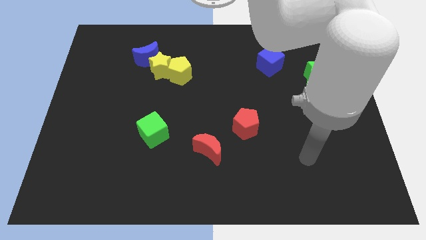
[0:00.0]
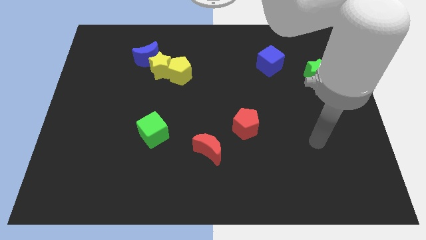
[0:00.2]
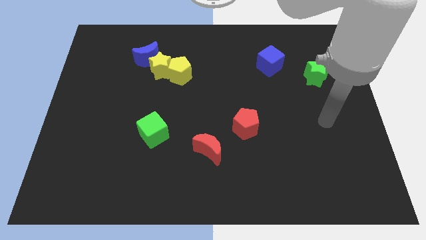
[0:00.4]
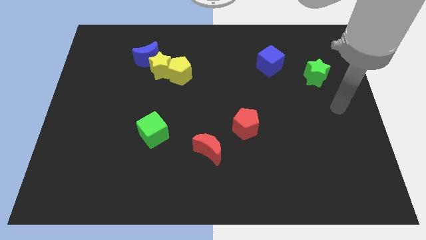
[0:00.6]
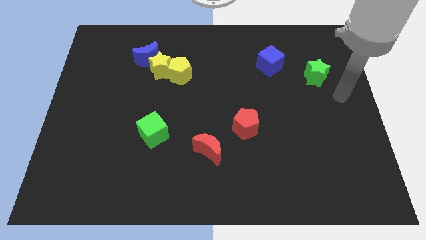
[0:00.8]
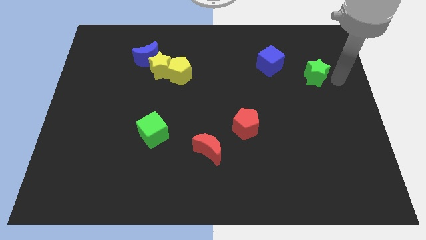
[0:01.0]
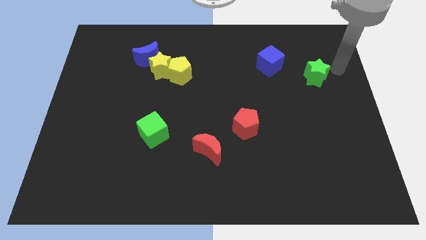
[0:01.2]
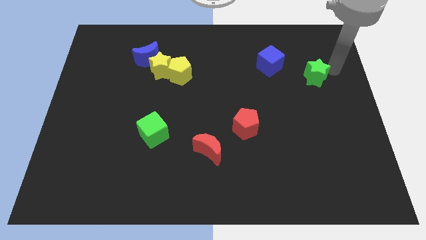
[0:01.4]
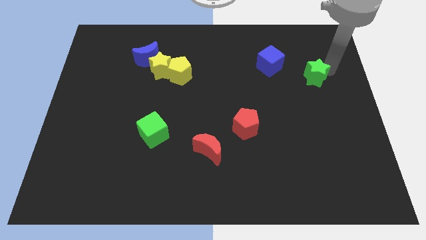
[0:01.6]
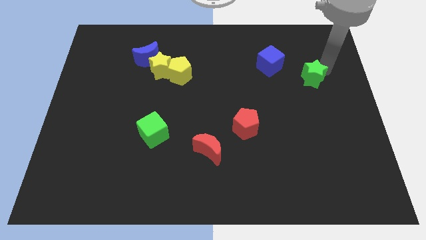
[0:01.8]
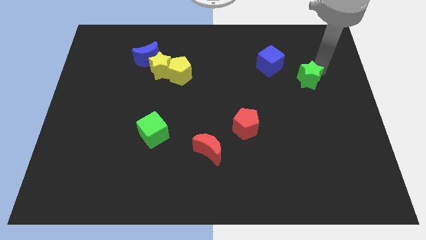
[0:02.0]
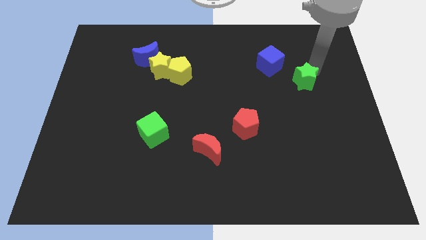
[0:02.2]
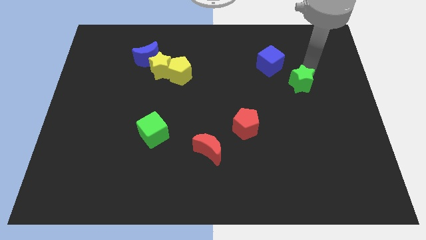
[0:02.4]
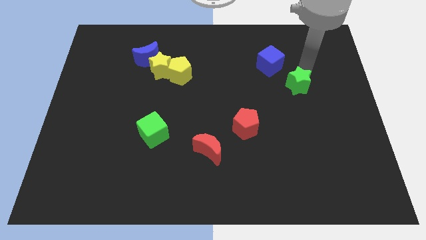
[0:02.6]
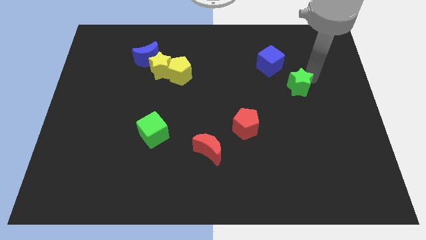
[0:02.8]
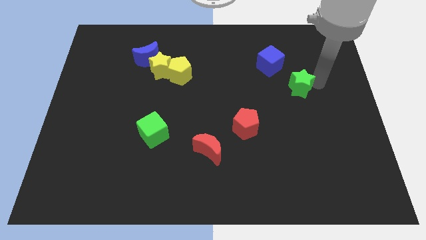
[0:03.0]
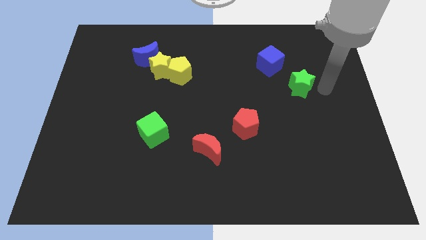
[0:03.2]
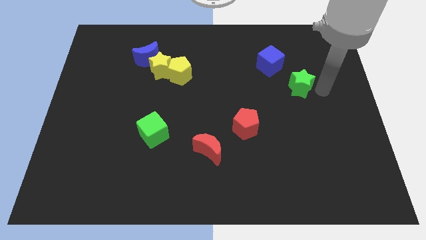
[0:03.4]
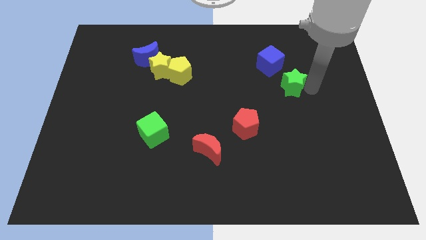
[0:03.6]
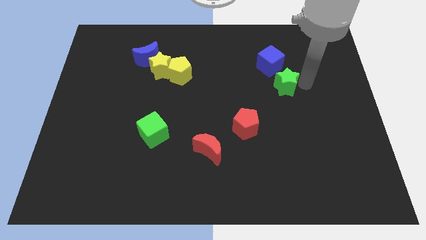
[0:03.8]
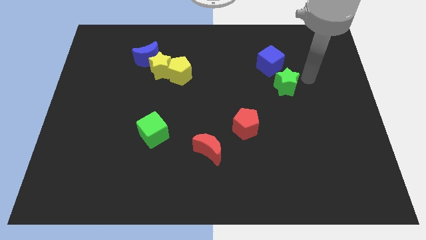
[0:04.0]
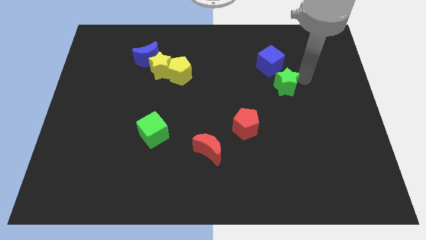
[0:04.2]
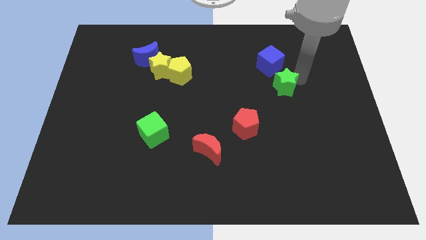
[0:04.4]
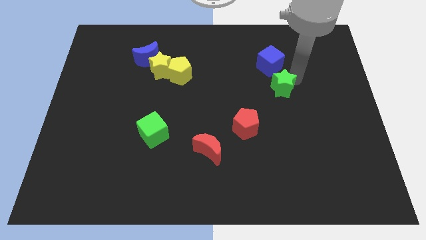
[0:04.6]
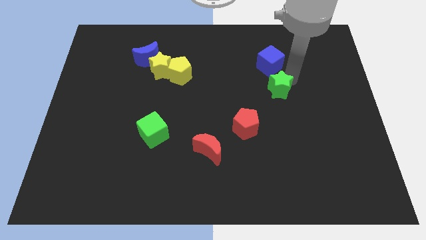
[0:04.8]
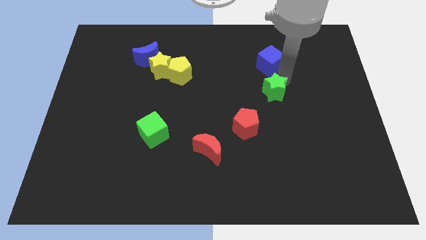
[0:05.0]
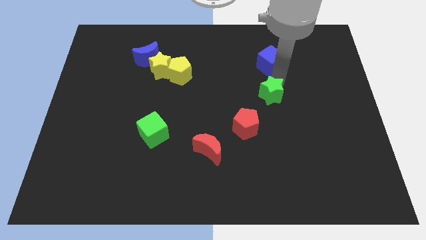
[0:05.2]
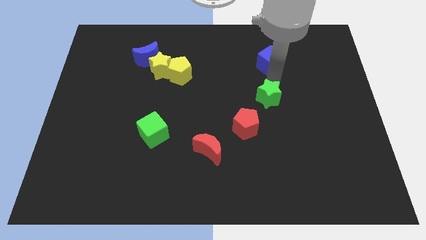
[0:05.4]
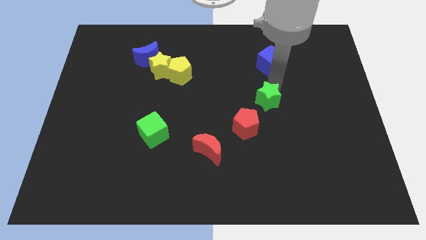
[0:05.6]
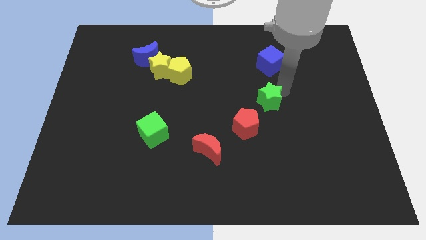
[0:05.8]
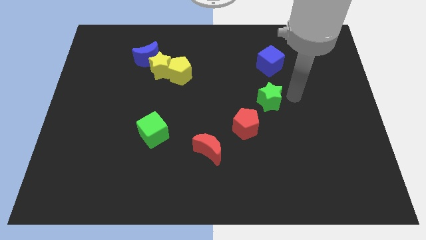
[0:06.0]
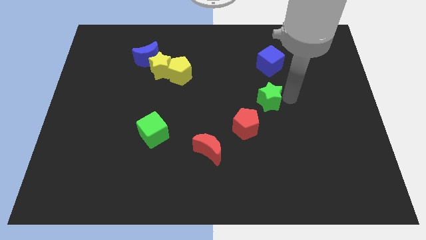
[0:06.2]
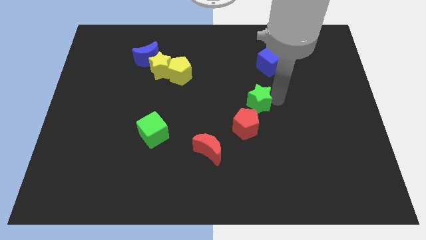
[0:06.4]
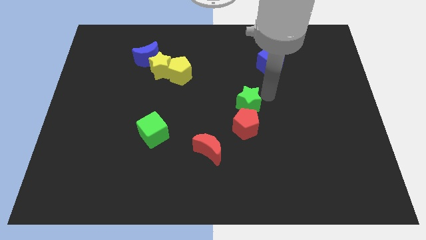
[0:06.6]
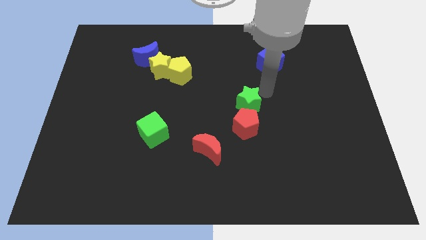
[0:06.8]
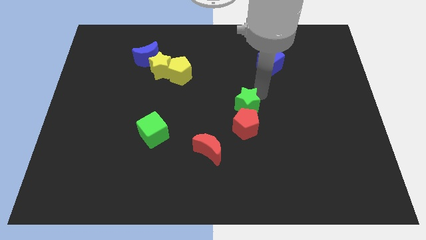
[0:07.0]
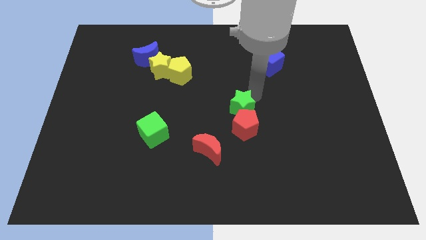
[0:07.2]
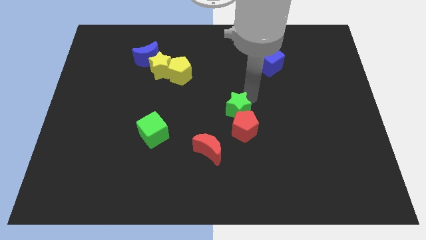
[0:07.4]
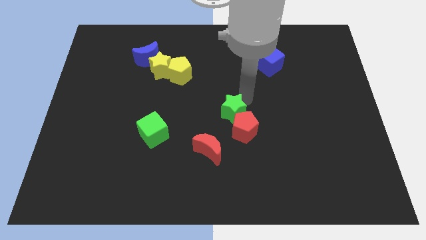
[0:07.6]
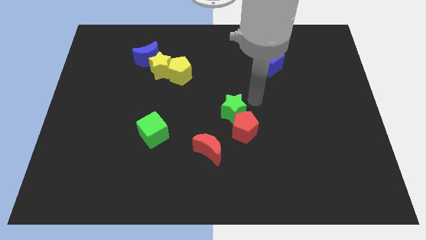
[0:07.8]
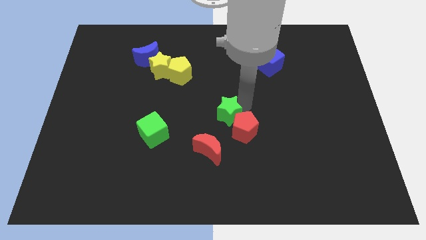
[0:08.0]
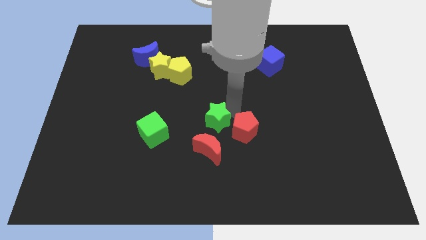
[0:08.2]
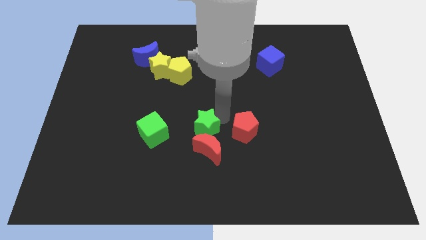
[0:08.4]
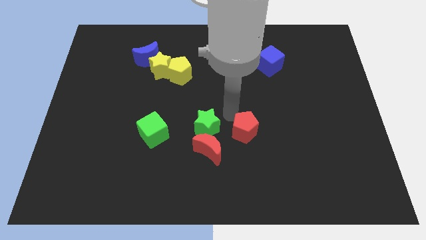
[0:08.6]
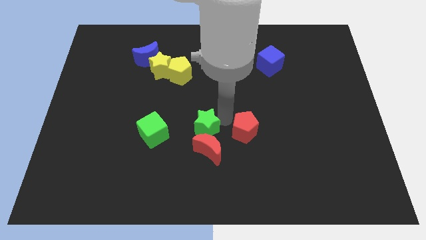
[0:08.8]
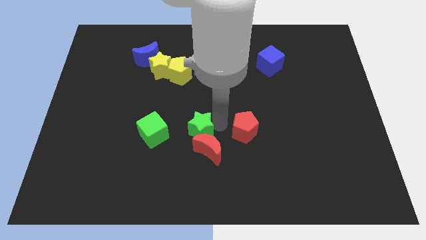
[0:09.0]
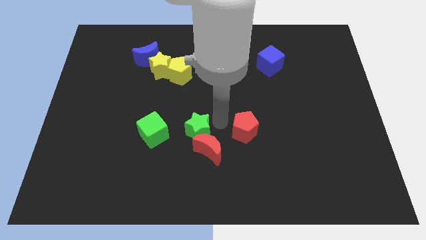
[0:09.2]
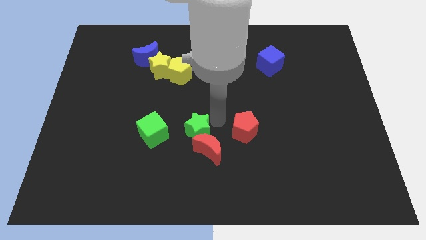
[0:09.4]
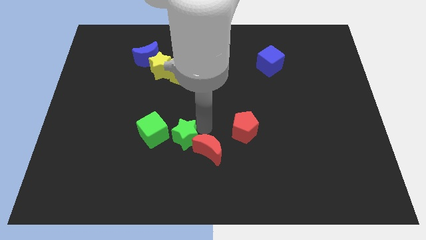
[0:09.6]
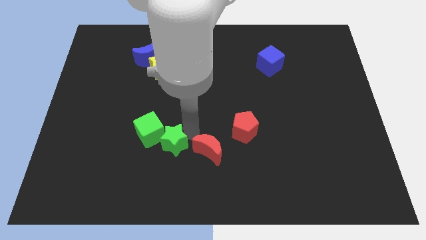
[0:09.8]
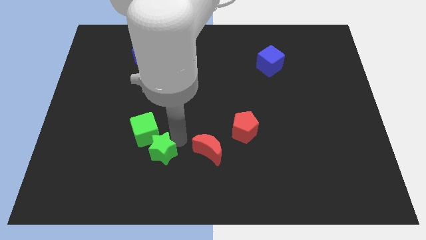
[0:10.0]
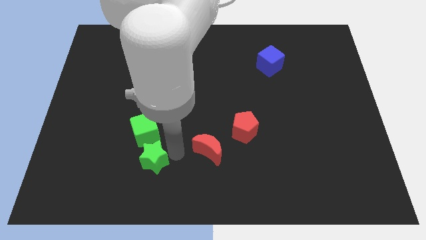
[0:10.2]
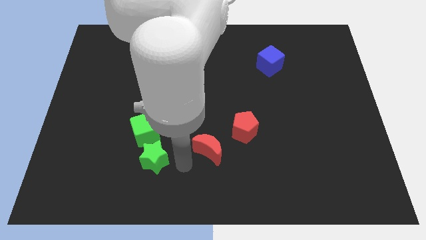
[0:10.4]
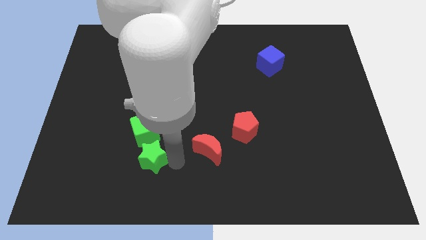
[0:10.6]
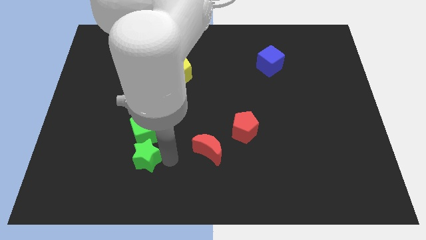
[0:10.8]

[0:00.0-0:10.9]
put the green star to the bottom left of the green cube

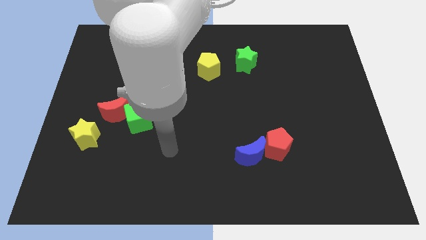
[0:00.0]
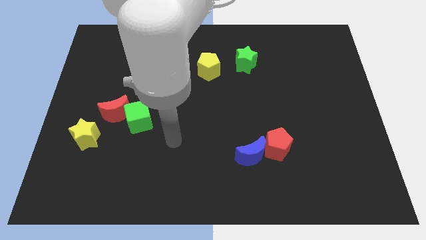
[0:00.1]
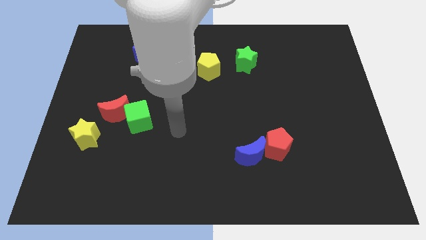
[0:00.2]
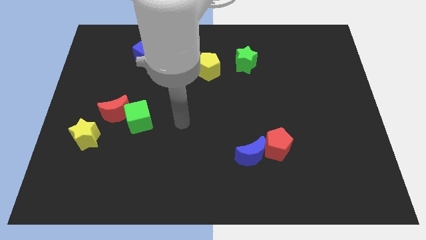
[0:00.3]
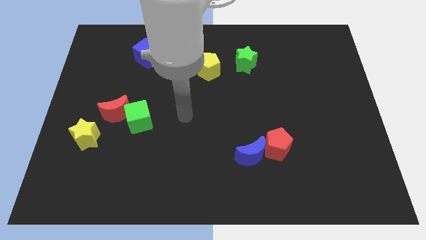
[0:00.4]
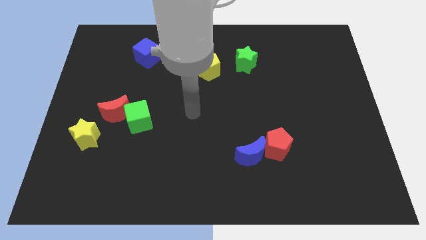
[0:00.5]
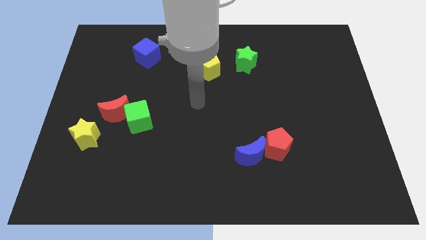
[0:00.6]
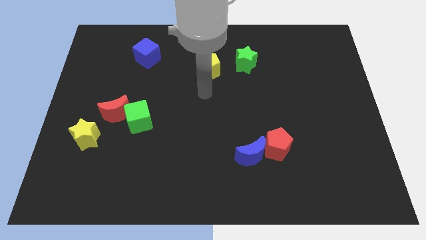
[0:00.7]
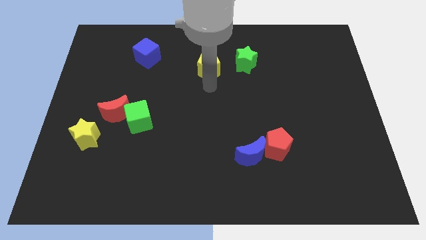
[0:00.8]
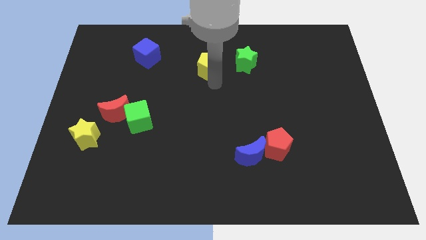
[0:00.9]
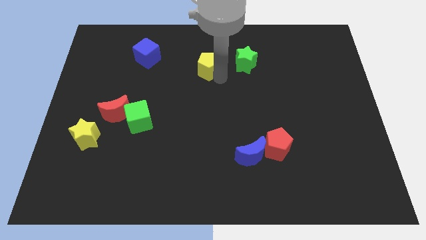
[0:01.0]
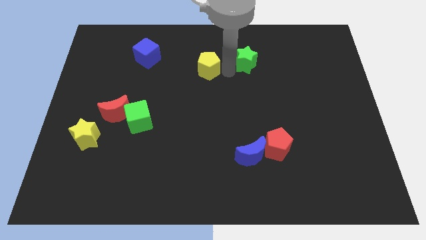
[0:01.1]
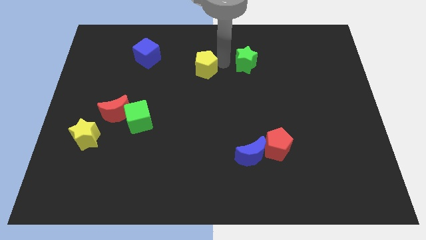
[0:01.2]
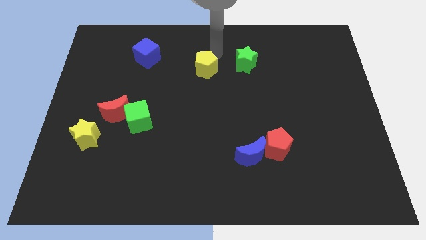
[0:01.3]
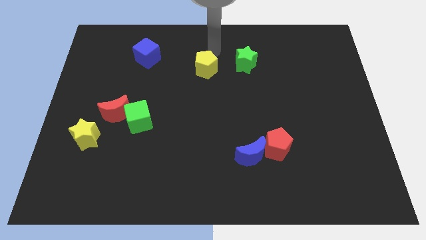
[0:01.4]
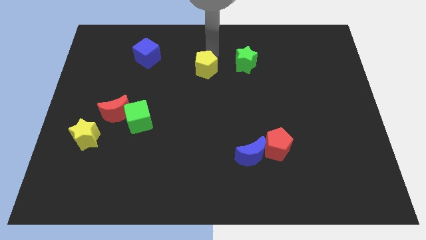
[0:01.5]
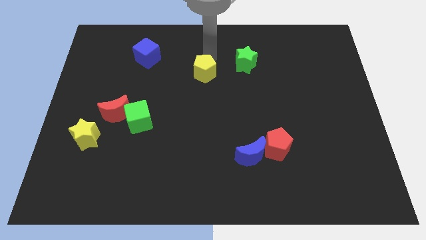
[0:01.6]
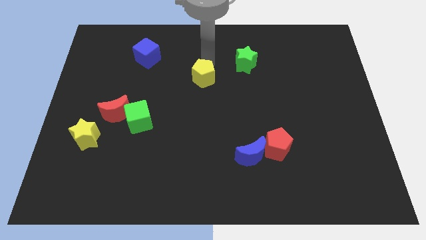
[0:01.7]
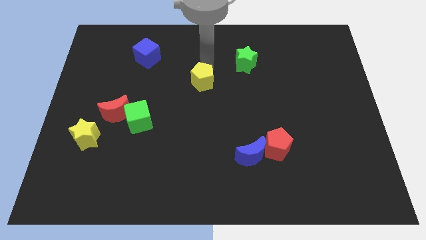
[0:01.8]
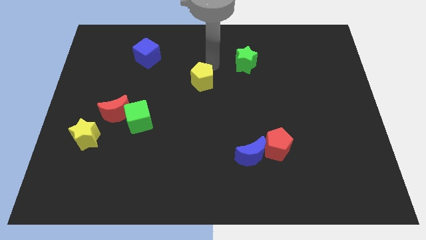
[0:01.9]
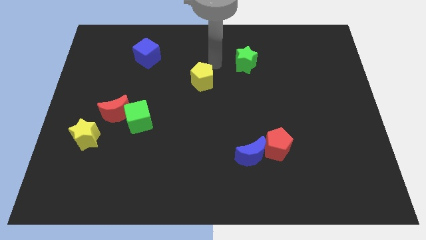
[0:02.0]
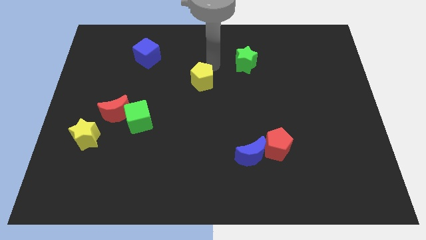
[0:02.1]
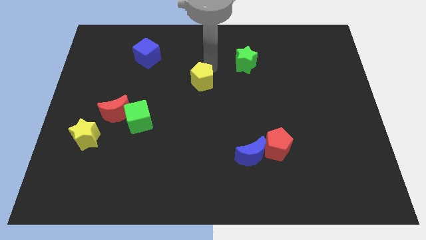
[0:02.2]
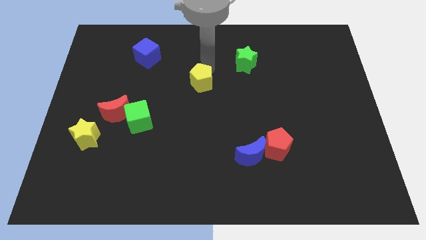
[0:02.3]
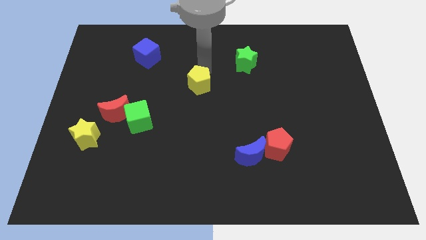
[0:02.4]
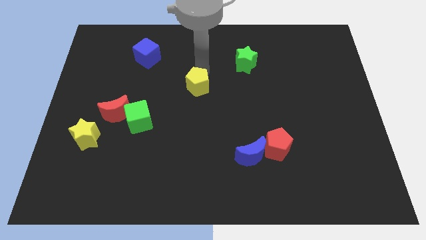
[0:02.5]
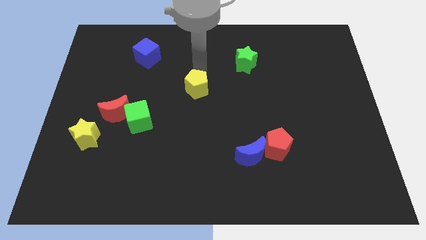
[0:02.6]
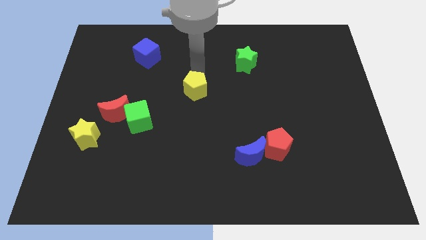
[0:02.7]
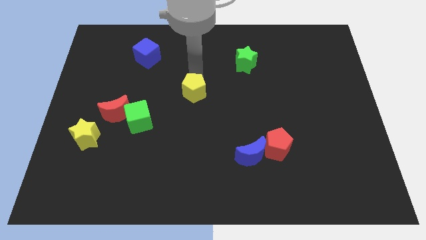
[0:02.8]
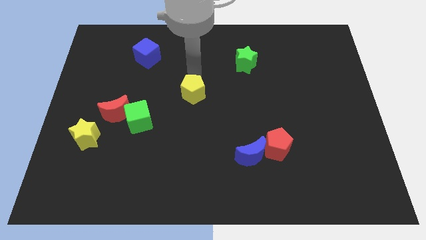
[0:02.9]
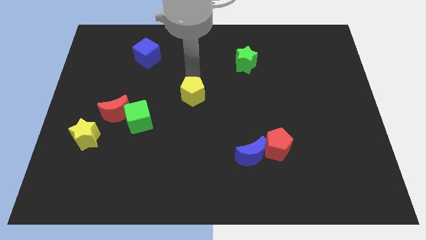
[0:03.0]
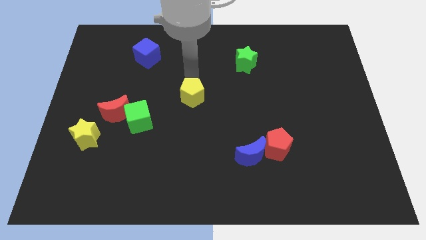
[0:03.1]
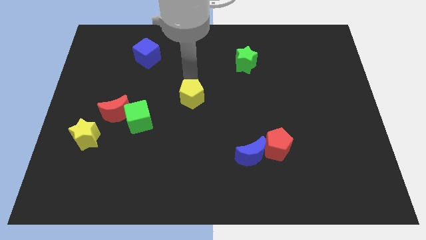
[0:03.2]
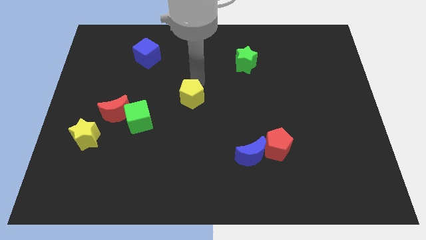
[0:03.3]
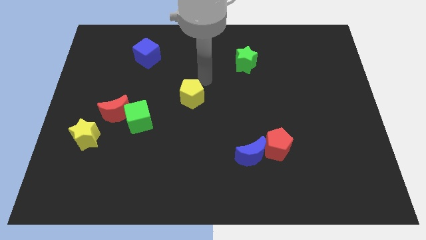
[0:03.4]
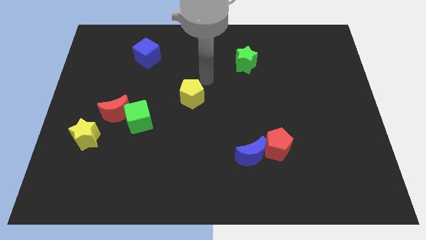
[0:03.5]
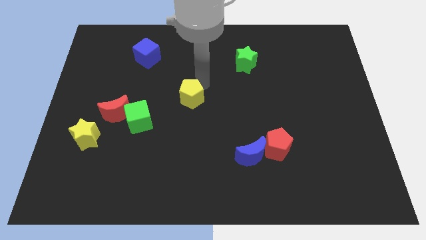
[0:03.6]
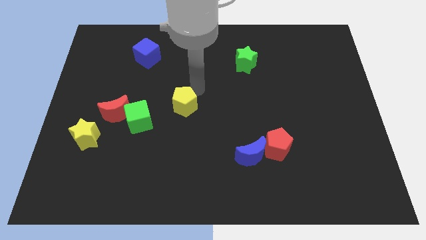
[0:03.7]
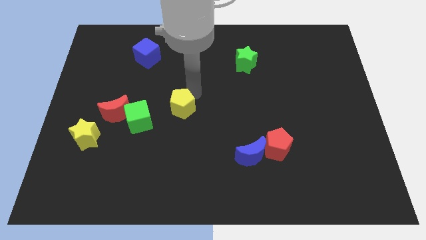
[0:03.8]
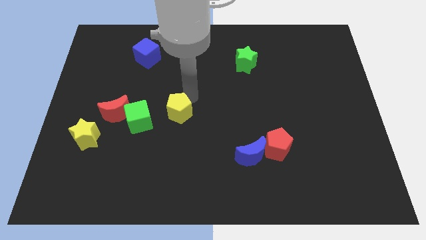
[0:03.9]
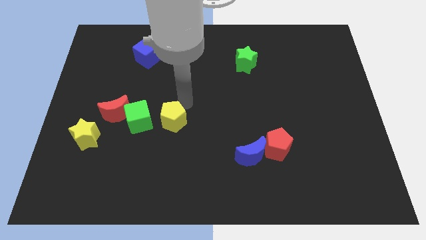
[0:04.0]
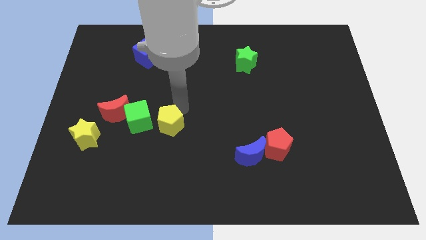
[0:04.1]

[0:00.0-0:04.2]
slide the yellow pentagon diagonally down and to the right of the green cube
